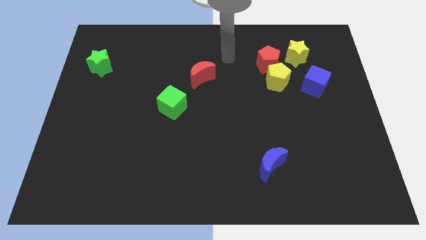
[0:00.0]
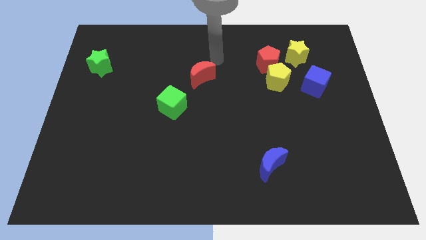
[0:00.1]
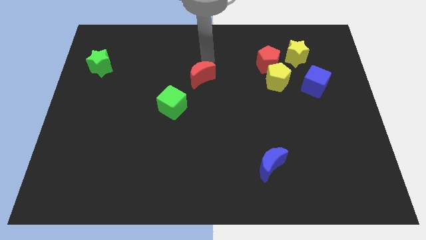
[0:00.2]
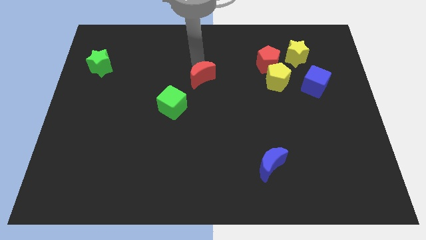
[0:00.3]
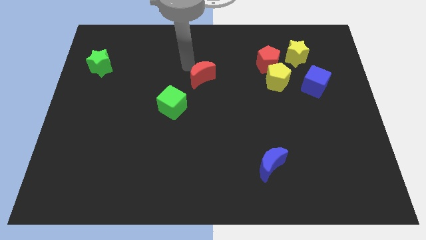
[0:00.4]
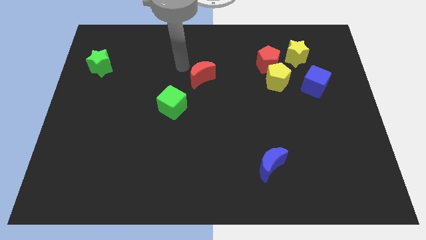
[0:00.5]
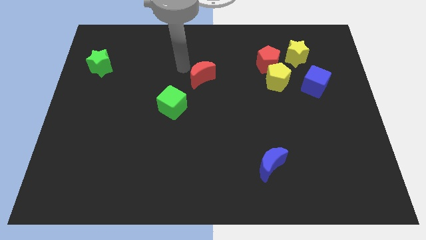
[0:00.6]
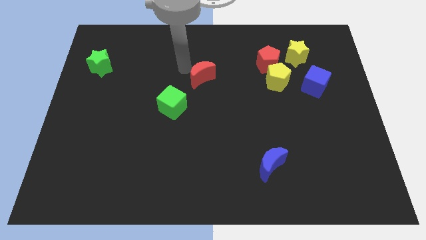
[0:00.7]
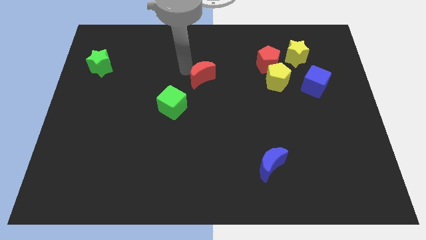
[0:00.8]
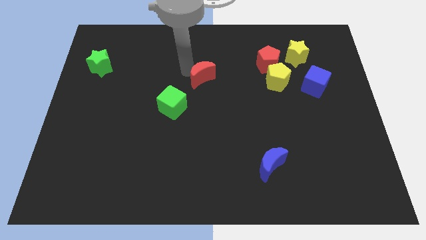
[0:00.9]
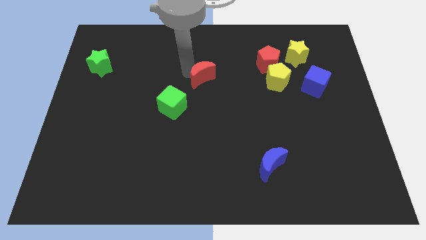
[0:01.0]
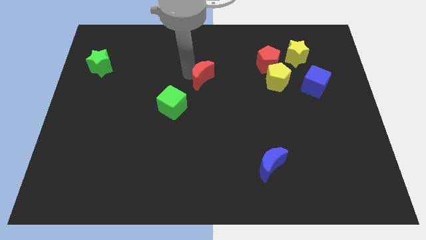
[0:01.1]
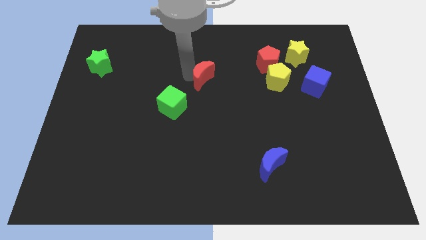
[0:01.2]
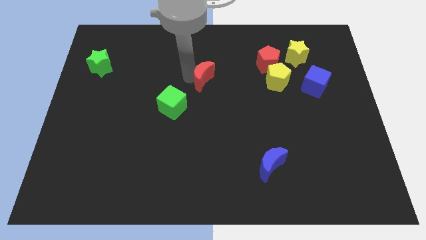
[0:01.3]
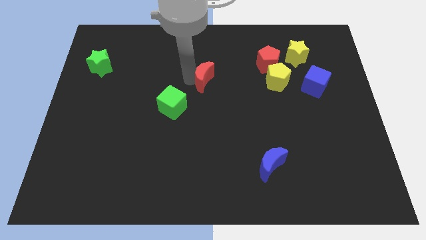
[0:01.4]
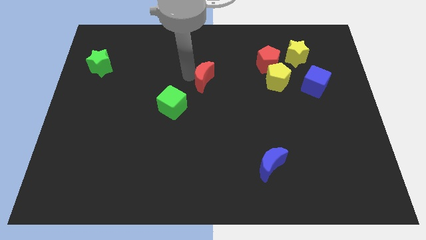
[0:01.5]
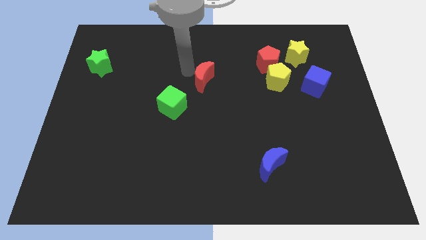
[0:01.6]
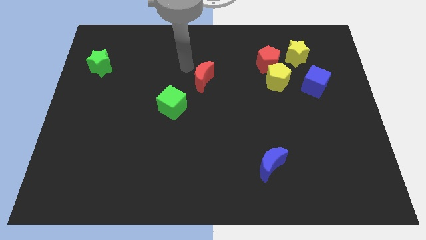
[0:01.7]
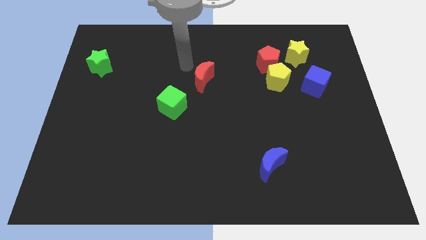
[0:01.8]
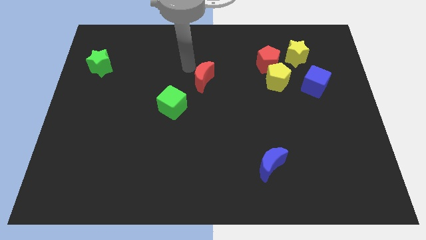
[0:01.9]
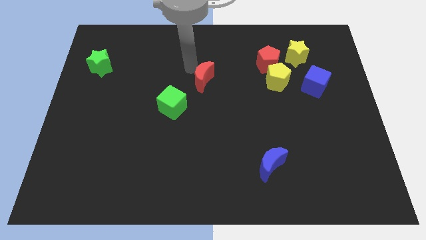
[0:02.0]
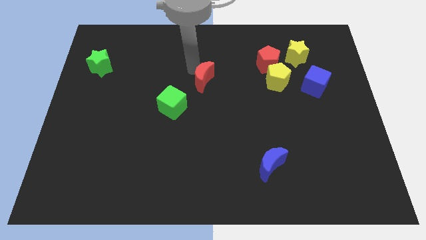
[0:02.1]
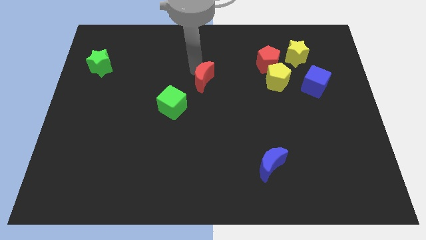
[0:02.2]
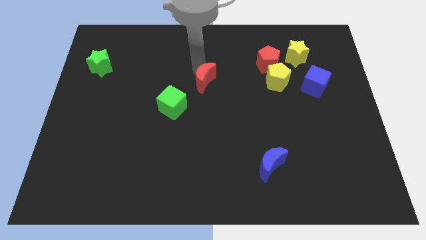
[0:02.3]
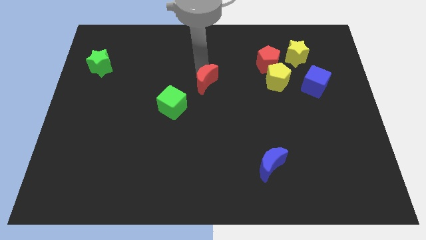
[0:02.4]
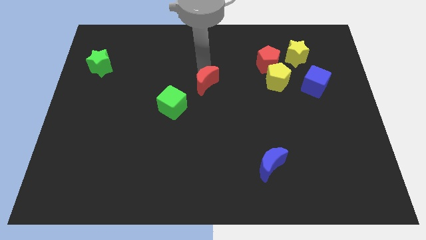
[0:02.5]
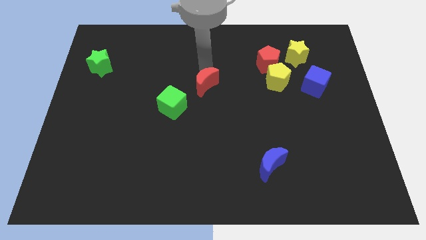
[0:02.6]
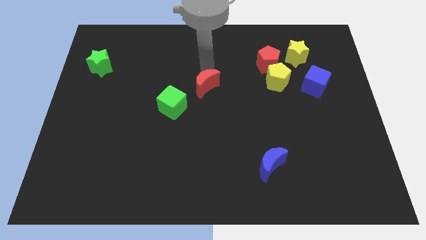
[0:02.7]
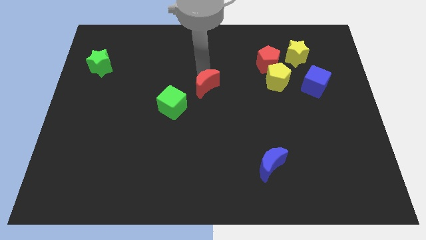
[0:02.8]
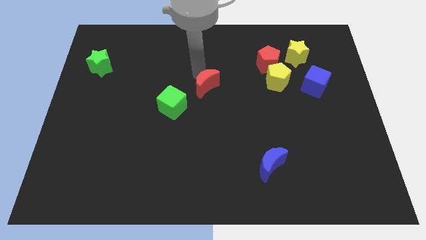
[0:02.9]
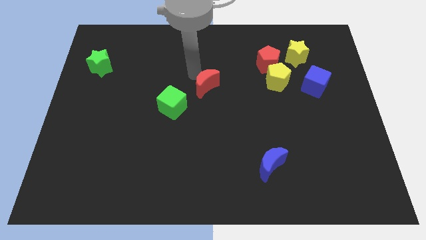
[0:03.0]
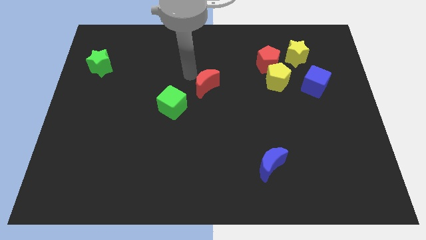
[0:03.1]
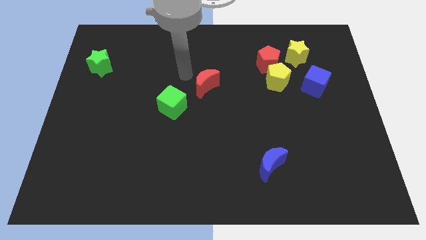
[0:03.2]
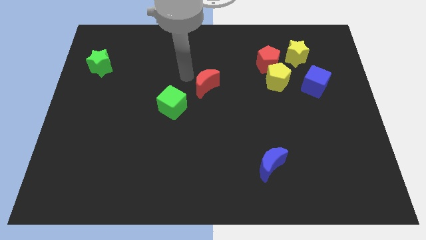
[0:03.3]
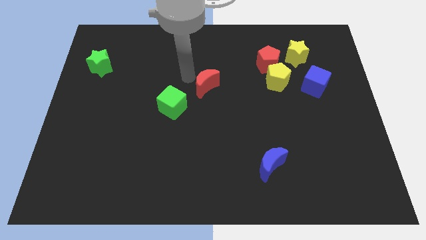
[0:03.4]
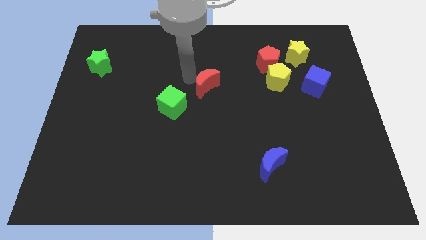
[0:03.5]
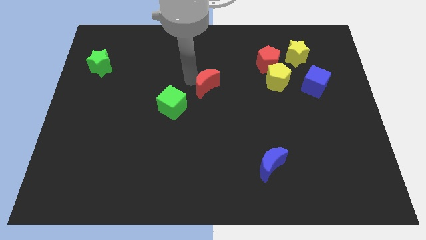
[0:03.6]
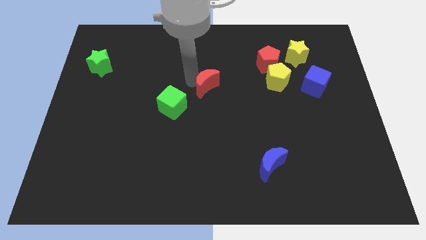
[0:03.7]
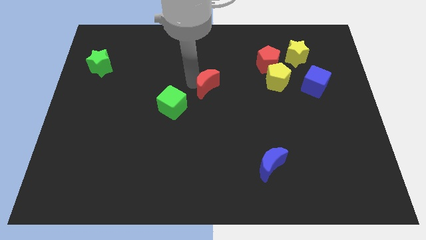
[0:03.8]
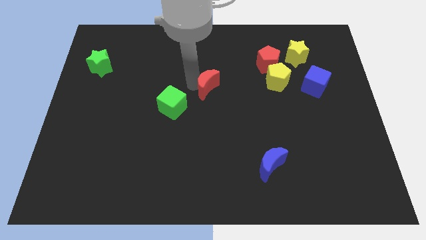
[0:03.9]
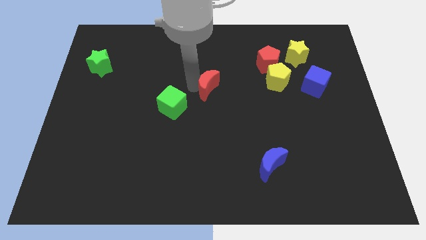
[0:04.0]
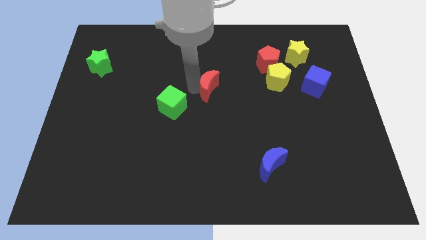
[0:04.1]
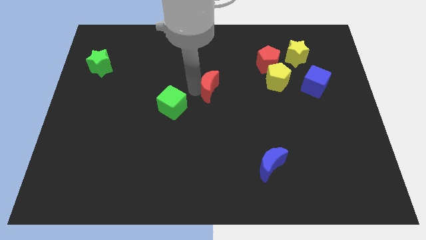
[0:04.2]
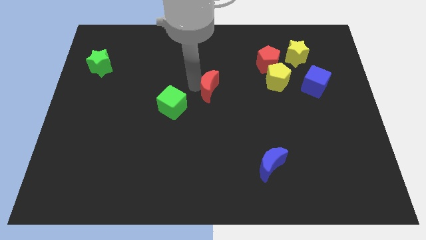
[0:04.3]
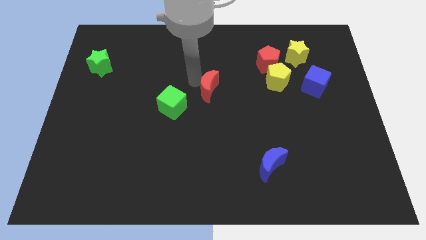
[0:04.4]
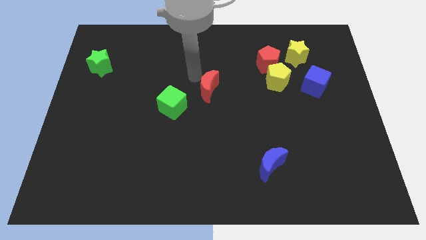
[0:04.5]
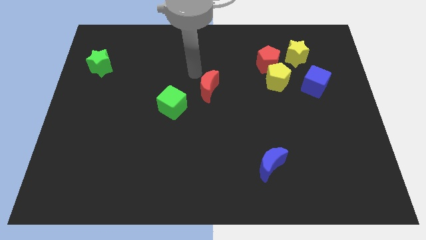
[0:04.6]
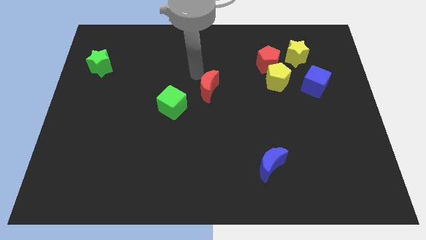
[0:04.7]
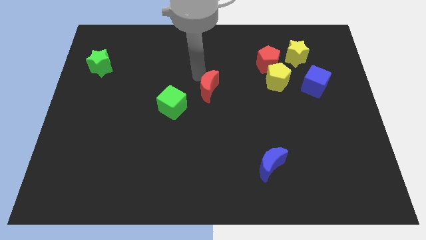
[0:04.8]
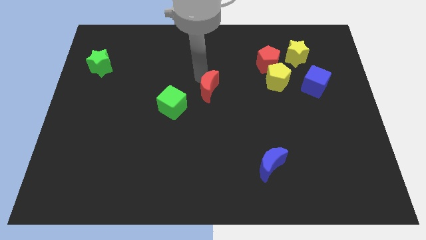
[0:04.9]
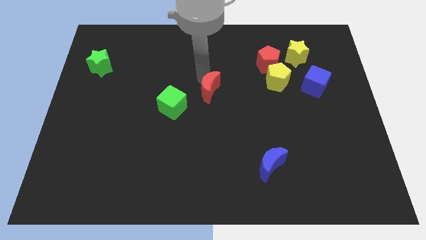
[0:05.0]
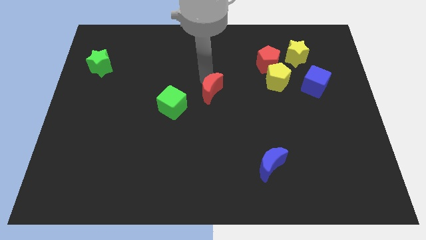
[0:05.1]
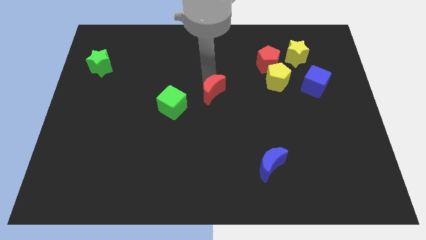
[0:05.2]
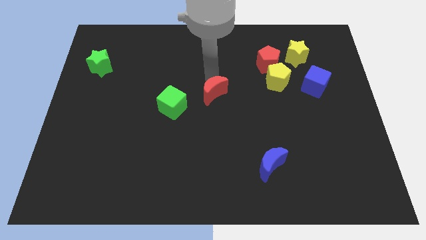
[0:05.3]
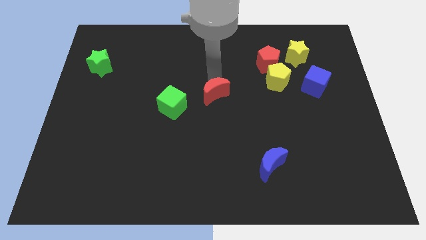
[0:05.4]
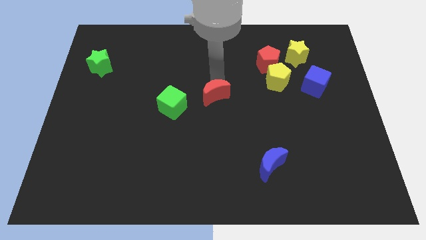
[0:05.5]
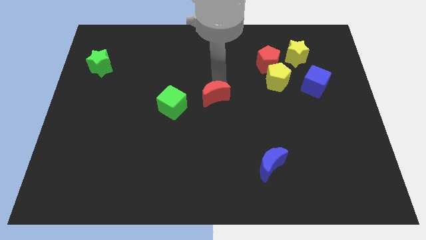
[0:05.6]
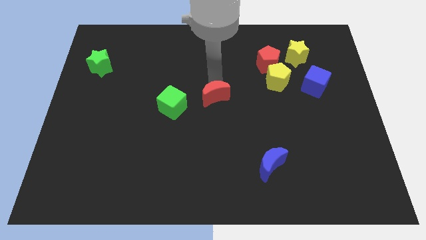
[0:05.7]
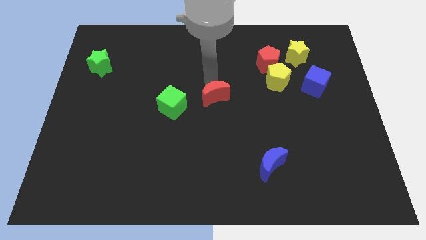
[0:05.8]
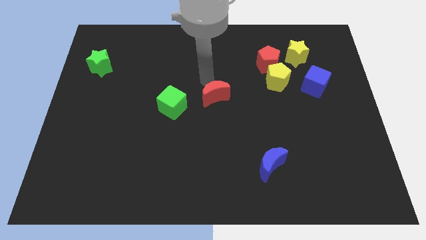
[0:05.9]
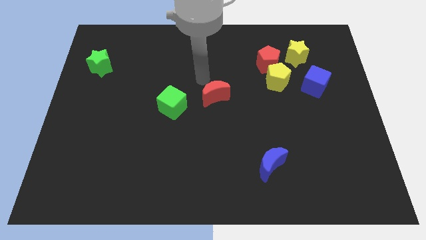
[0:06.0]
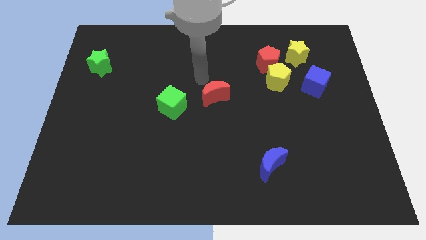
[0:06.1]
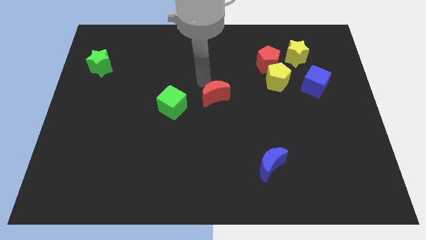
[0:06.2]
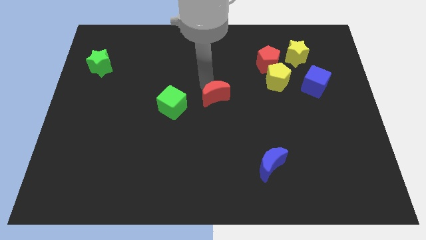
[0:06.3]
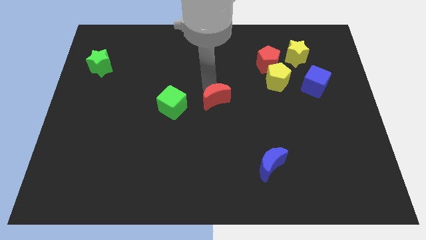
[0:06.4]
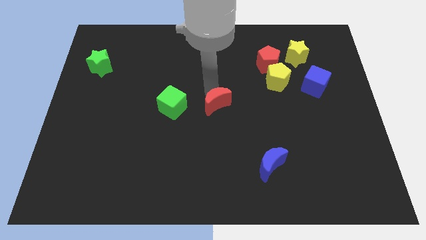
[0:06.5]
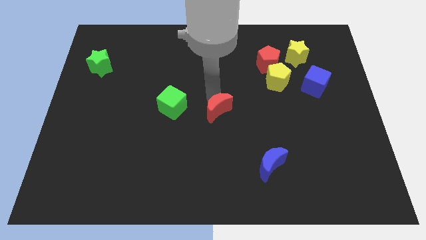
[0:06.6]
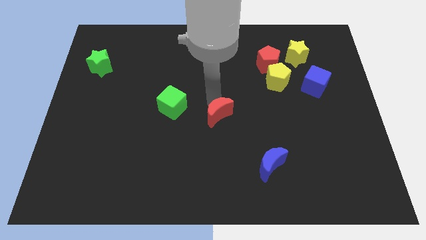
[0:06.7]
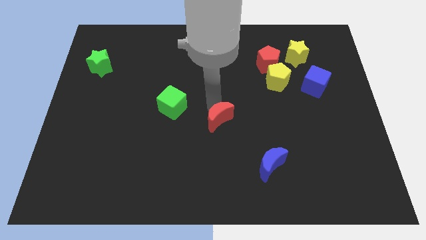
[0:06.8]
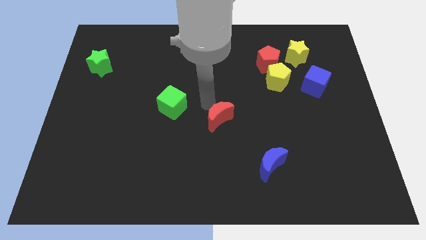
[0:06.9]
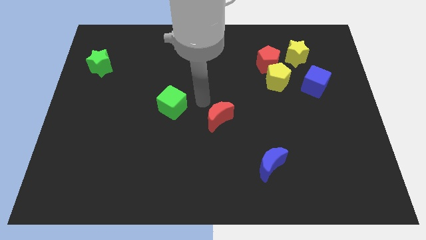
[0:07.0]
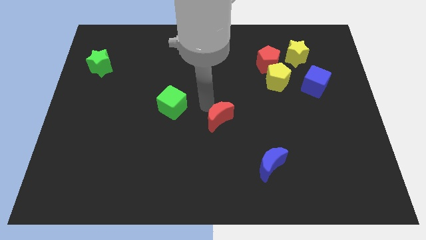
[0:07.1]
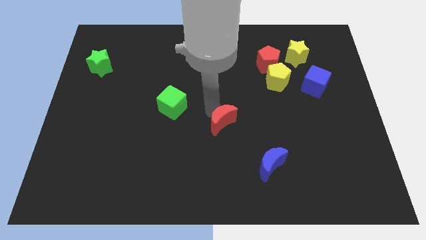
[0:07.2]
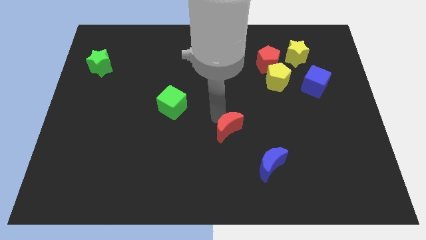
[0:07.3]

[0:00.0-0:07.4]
slide the red moon to the top left side of the blue moon
